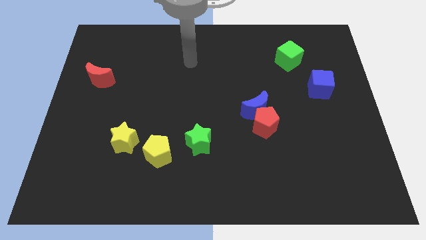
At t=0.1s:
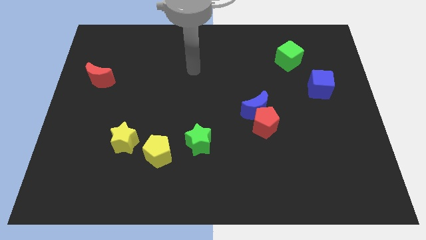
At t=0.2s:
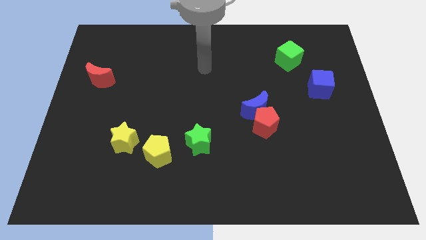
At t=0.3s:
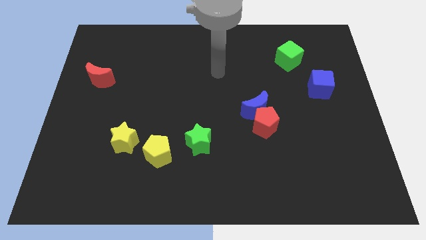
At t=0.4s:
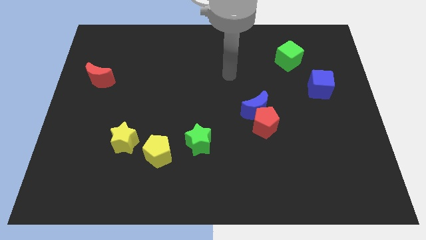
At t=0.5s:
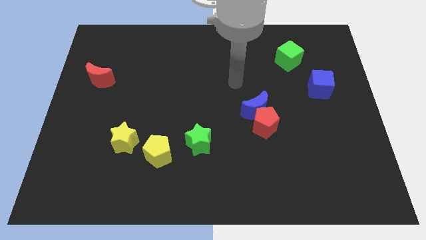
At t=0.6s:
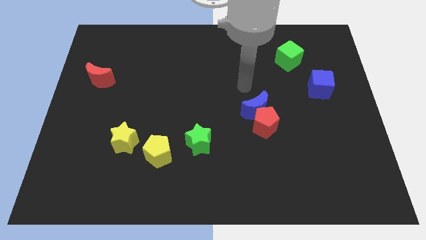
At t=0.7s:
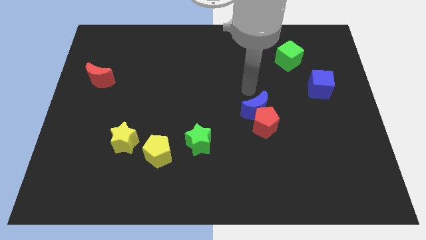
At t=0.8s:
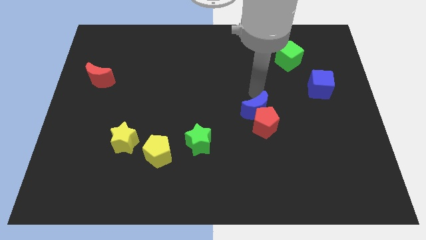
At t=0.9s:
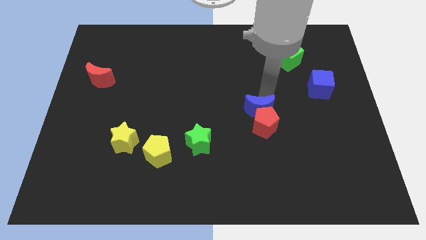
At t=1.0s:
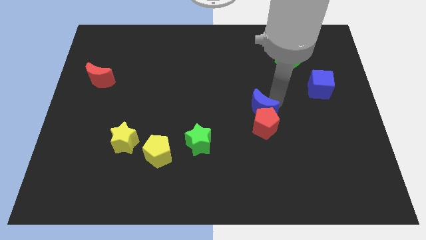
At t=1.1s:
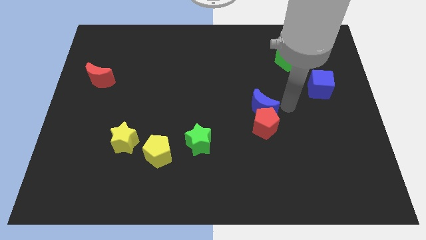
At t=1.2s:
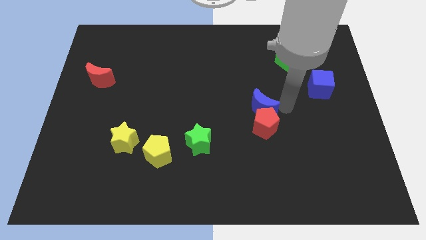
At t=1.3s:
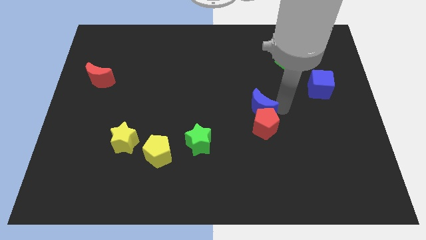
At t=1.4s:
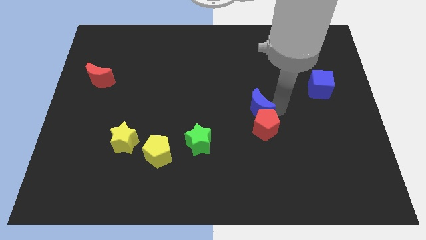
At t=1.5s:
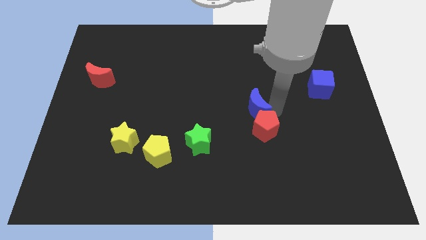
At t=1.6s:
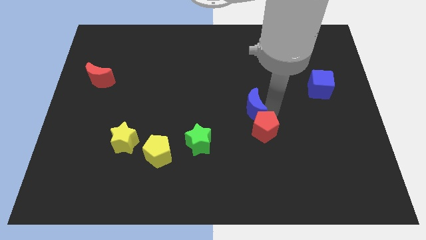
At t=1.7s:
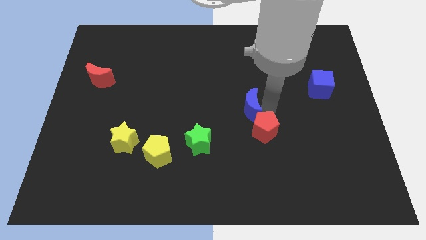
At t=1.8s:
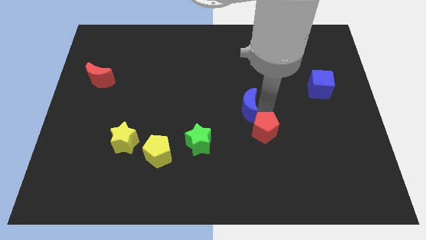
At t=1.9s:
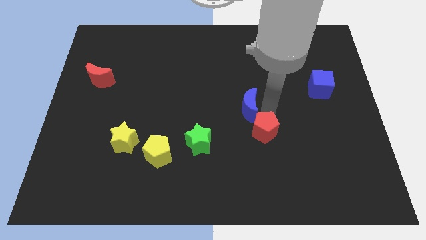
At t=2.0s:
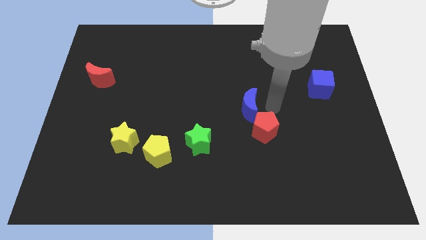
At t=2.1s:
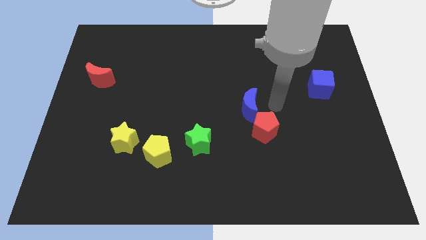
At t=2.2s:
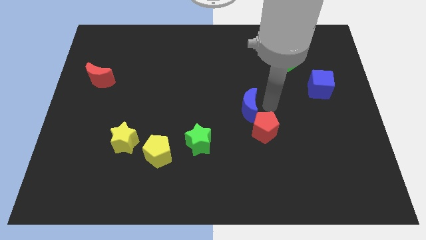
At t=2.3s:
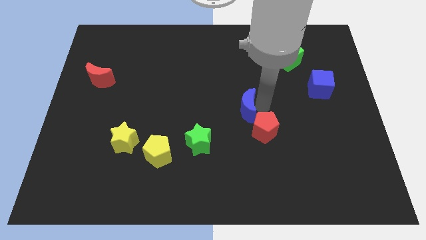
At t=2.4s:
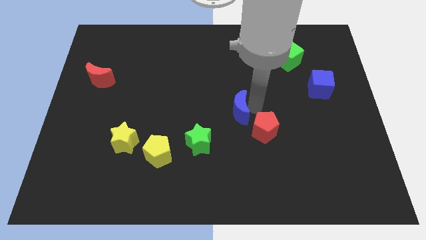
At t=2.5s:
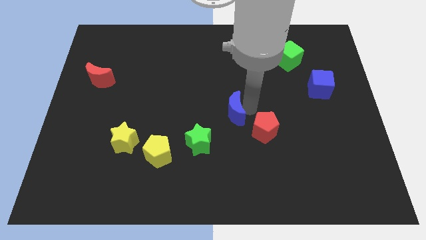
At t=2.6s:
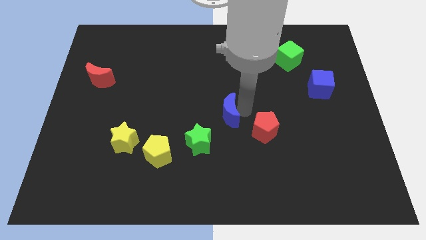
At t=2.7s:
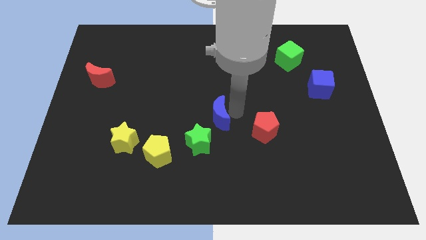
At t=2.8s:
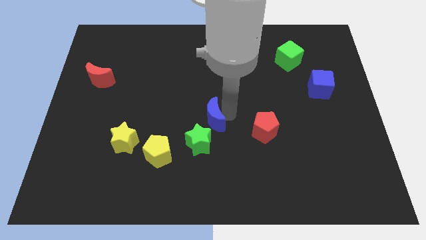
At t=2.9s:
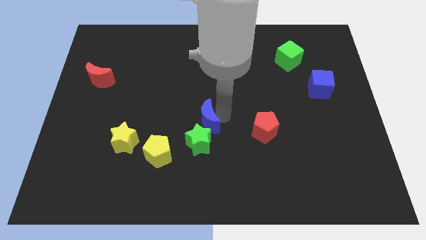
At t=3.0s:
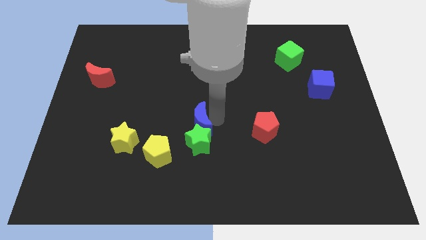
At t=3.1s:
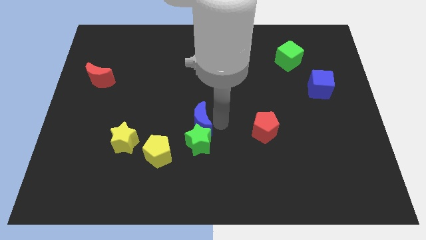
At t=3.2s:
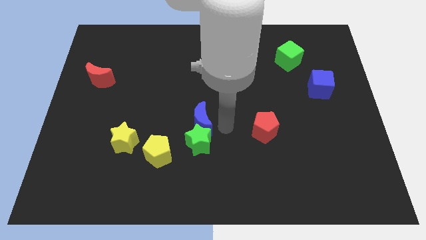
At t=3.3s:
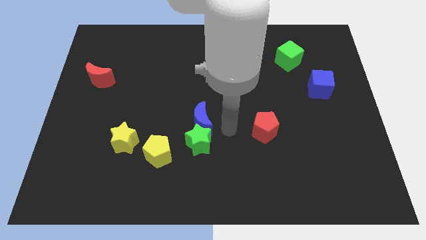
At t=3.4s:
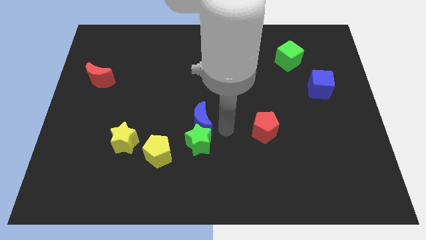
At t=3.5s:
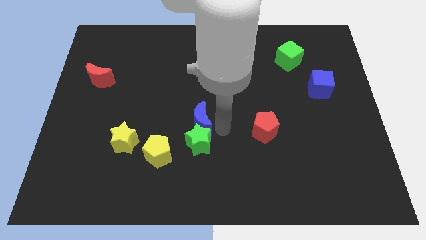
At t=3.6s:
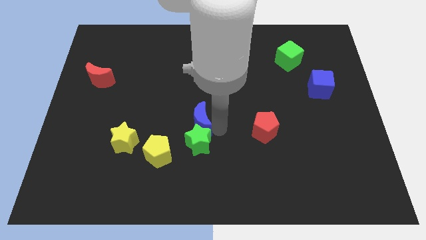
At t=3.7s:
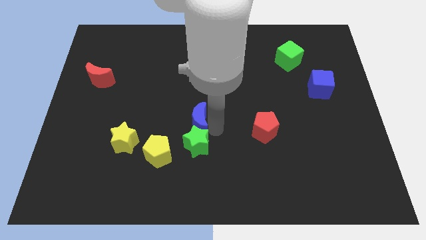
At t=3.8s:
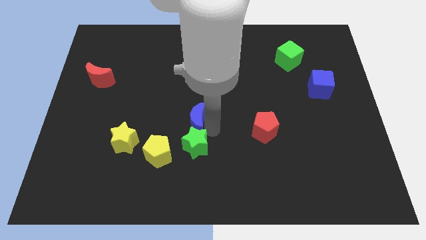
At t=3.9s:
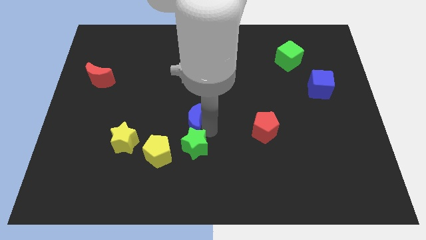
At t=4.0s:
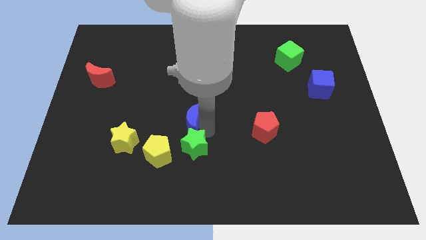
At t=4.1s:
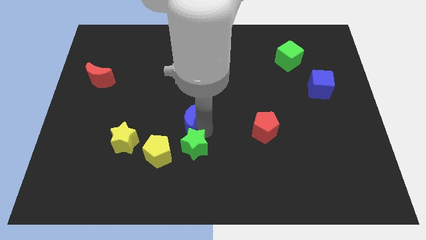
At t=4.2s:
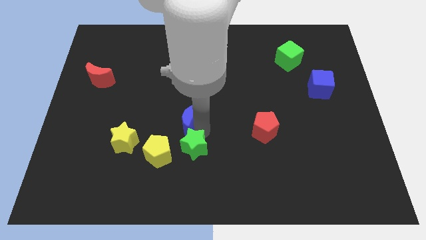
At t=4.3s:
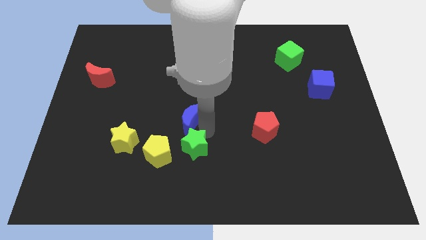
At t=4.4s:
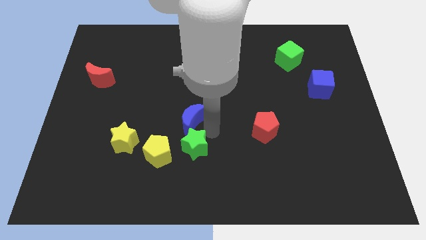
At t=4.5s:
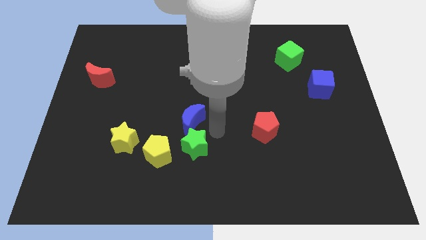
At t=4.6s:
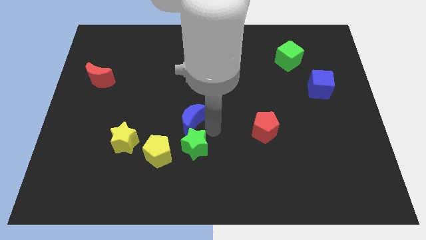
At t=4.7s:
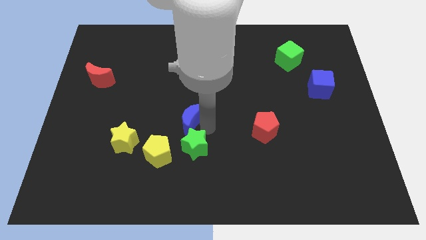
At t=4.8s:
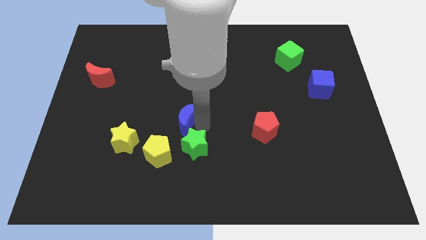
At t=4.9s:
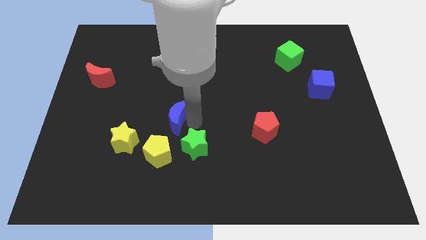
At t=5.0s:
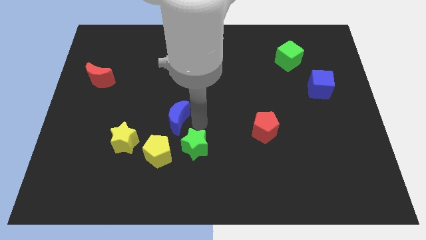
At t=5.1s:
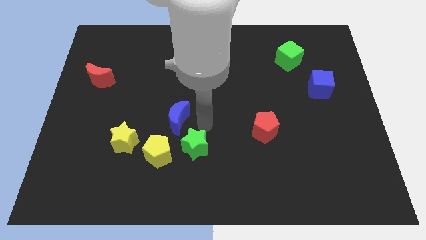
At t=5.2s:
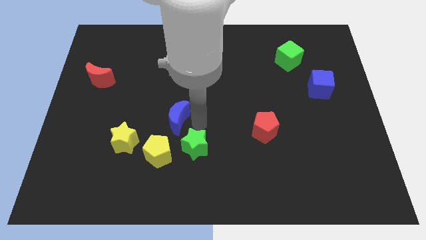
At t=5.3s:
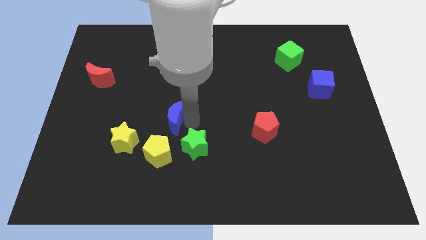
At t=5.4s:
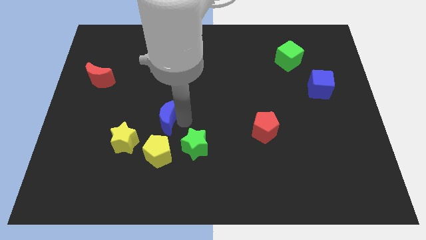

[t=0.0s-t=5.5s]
push the blue moon to the left

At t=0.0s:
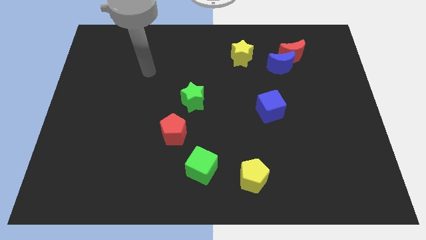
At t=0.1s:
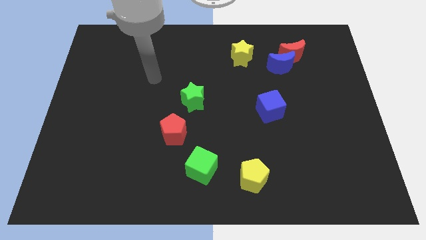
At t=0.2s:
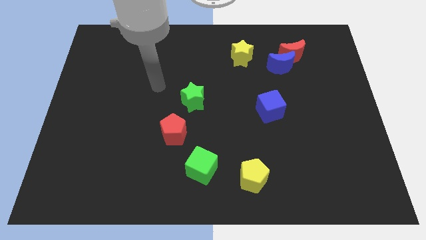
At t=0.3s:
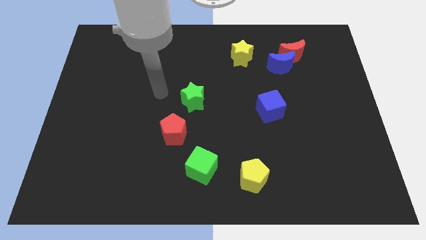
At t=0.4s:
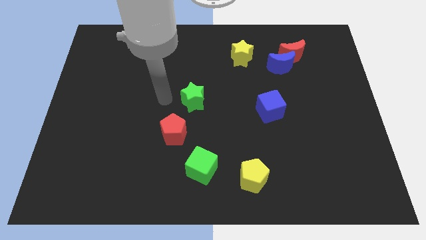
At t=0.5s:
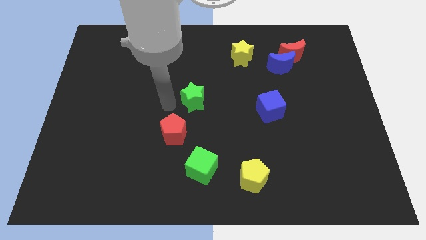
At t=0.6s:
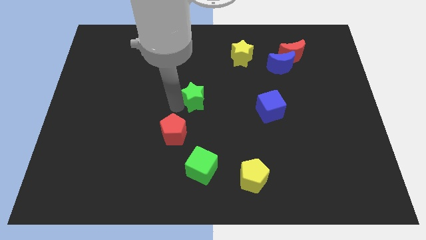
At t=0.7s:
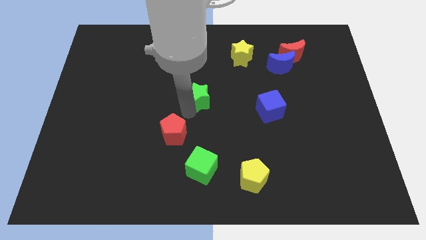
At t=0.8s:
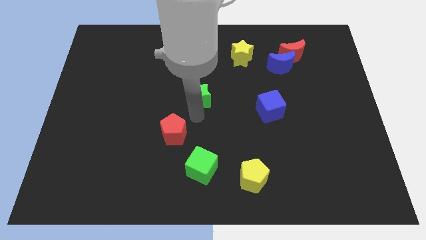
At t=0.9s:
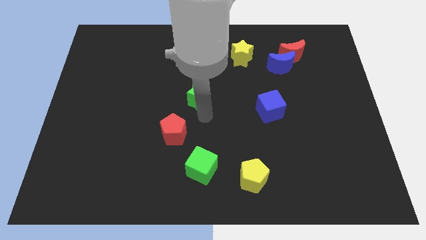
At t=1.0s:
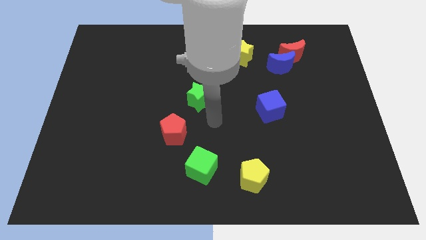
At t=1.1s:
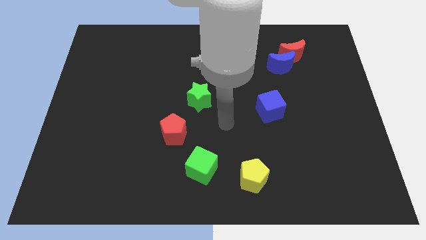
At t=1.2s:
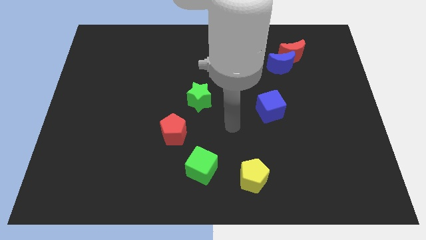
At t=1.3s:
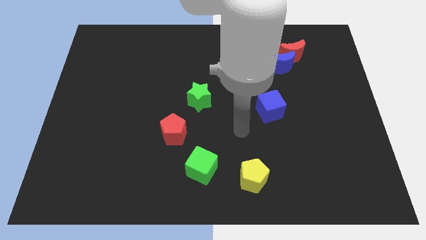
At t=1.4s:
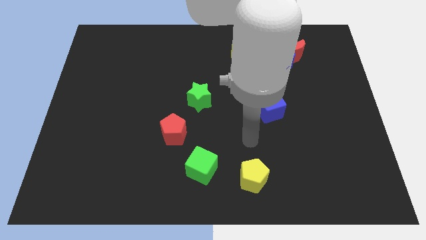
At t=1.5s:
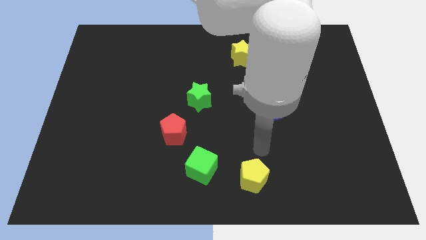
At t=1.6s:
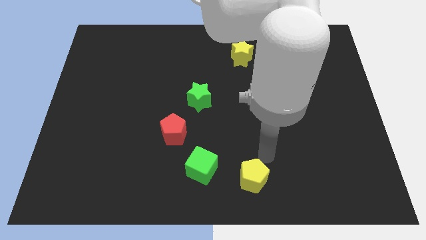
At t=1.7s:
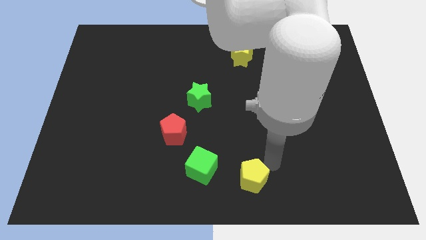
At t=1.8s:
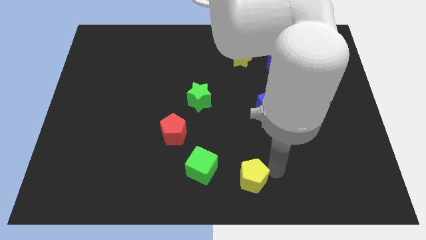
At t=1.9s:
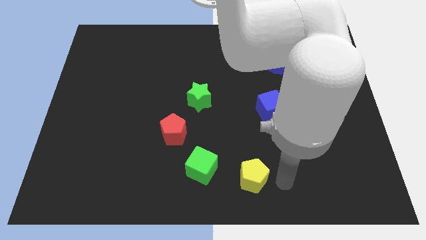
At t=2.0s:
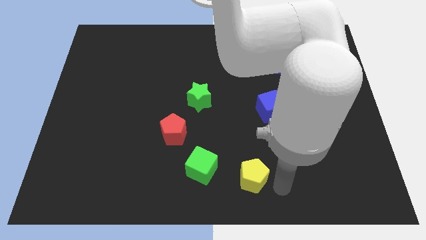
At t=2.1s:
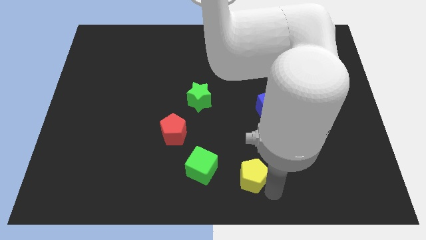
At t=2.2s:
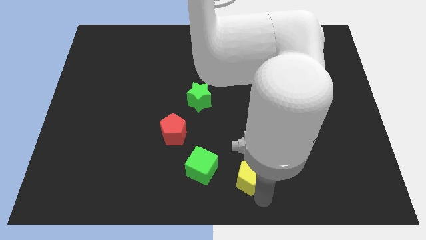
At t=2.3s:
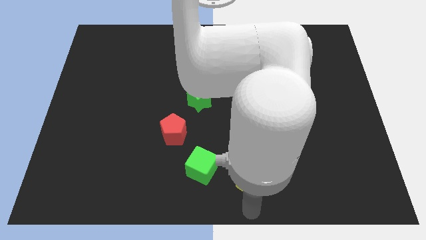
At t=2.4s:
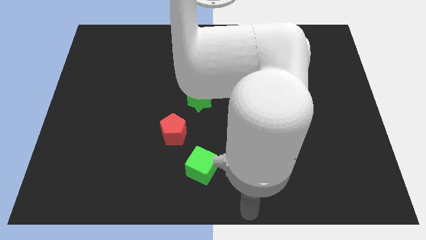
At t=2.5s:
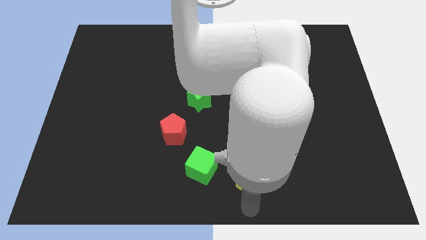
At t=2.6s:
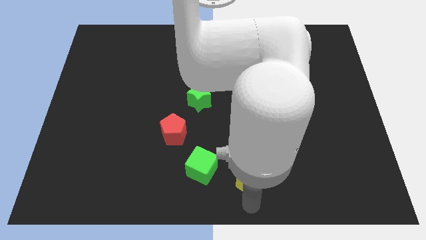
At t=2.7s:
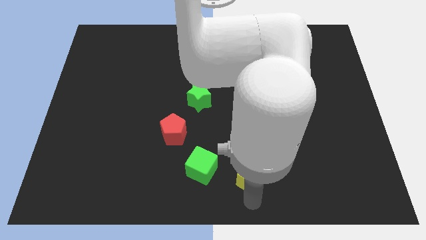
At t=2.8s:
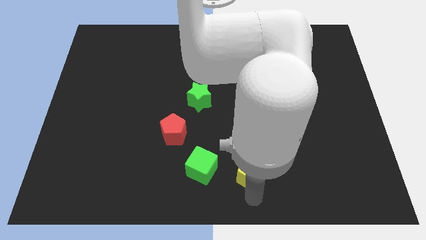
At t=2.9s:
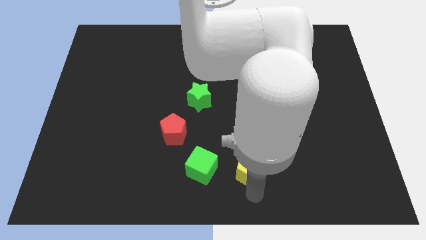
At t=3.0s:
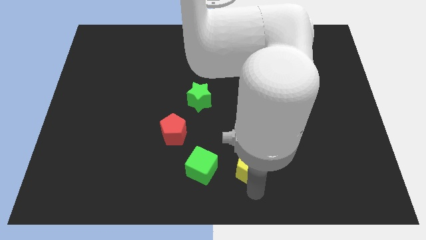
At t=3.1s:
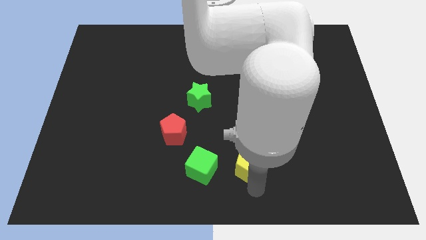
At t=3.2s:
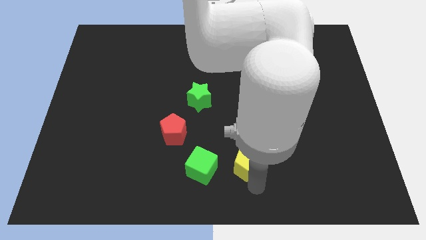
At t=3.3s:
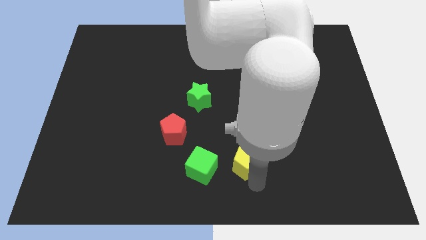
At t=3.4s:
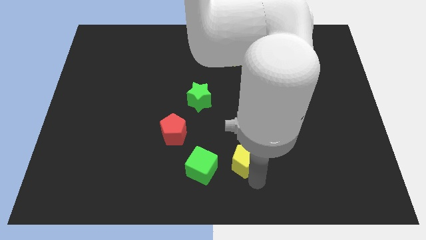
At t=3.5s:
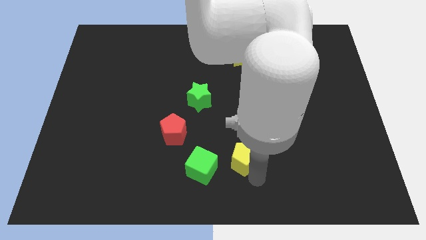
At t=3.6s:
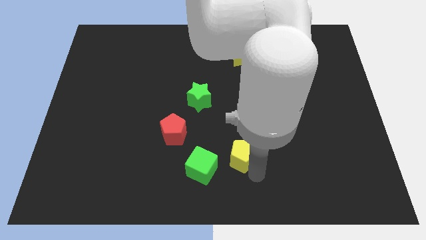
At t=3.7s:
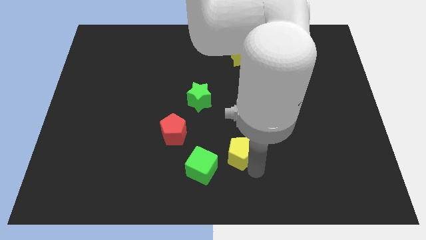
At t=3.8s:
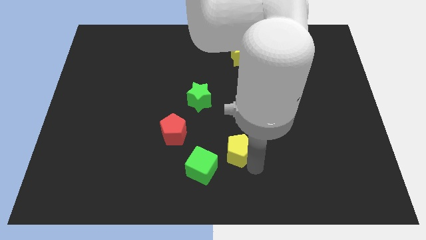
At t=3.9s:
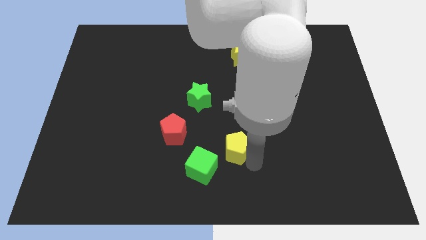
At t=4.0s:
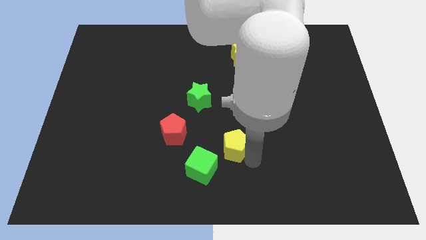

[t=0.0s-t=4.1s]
slide the yellow pentagon upwards a little bit
